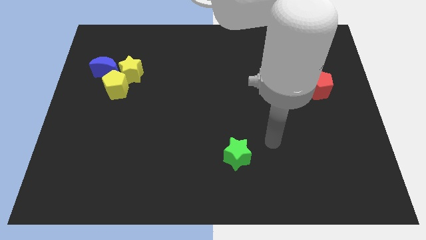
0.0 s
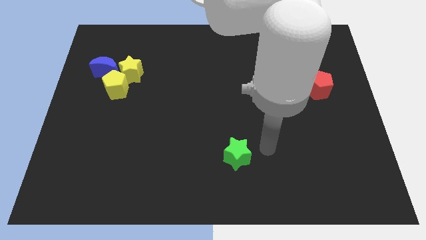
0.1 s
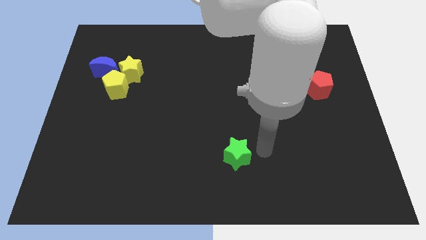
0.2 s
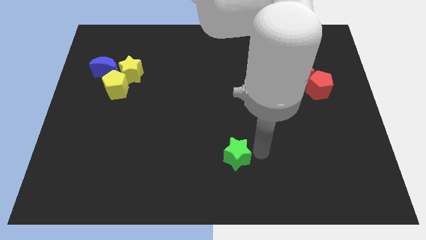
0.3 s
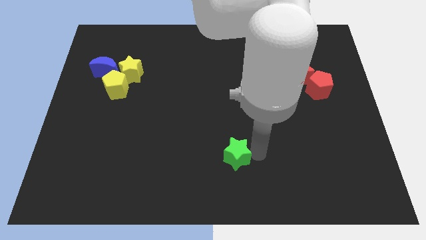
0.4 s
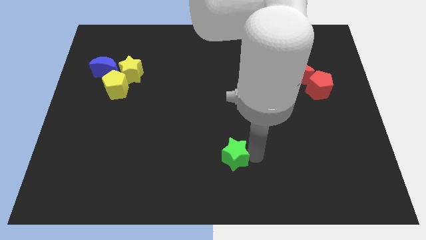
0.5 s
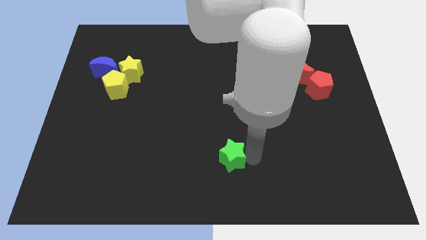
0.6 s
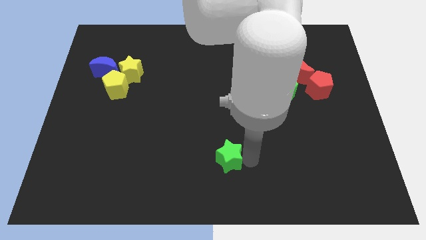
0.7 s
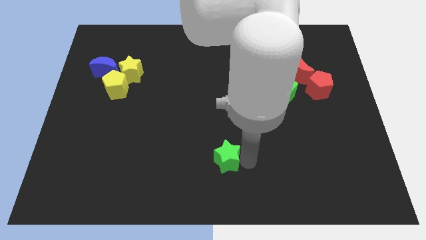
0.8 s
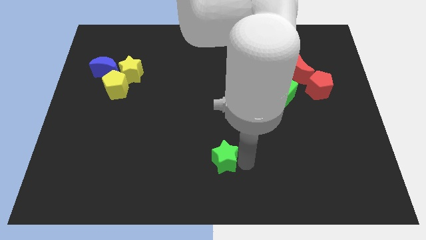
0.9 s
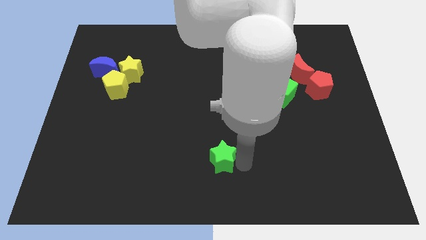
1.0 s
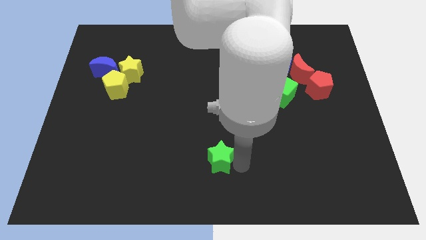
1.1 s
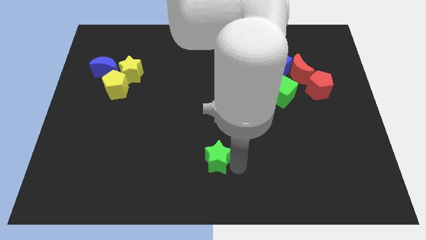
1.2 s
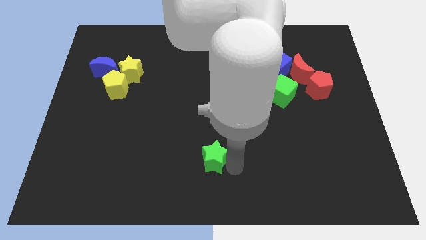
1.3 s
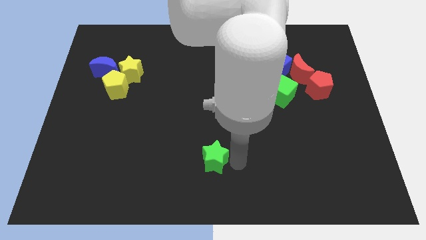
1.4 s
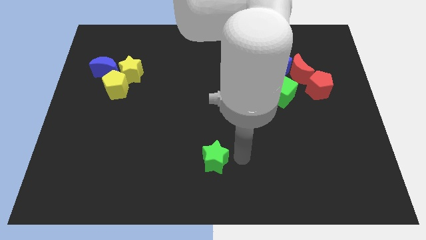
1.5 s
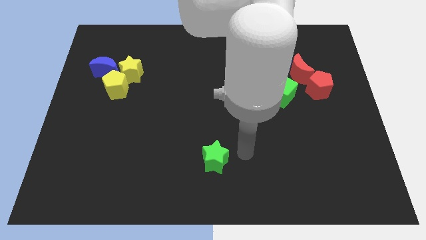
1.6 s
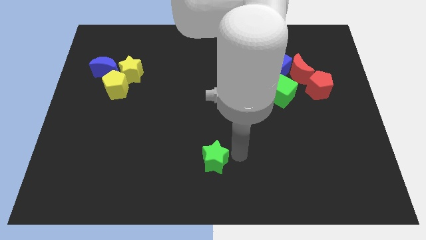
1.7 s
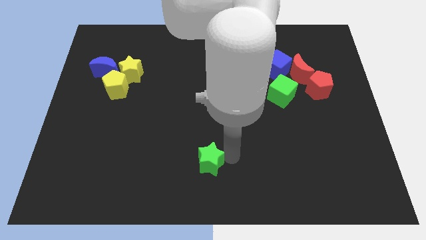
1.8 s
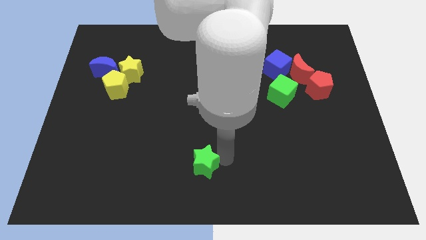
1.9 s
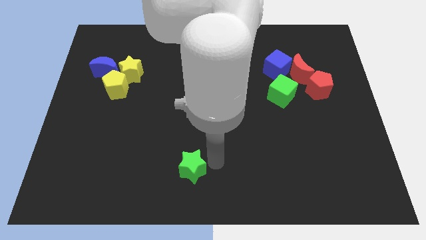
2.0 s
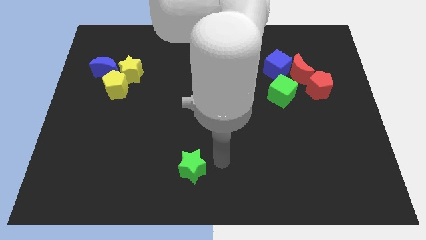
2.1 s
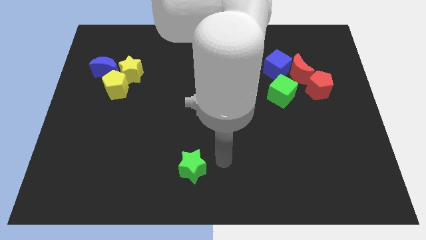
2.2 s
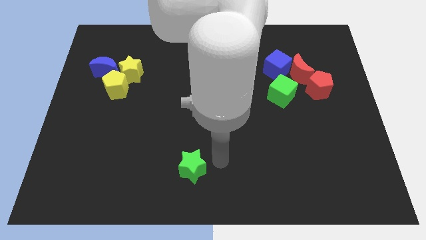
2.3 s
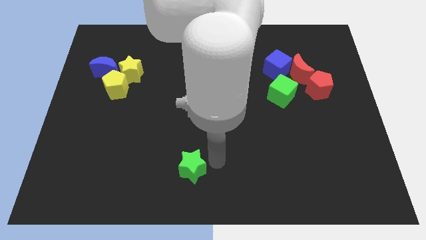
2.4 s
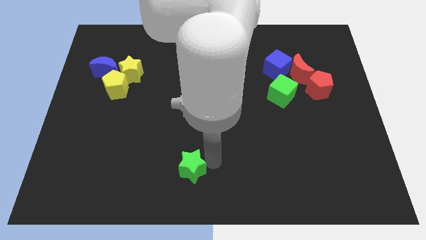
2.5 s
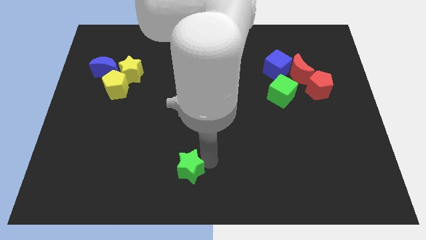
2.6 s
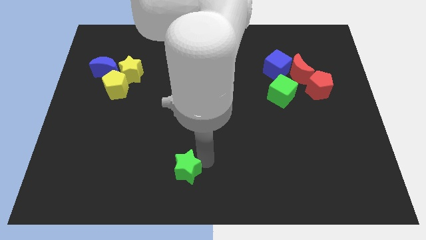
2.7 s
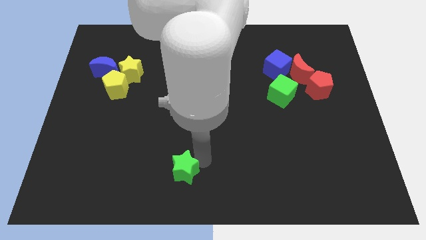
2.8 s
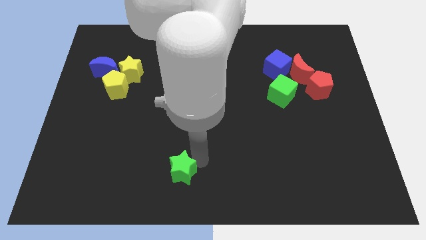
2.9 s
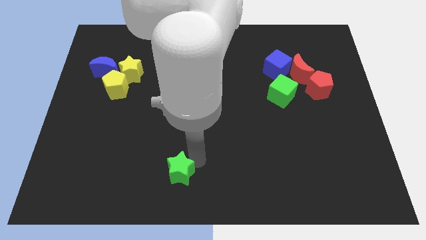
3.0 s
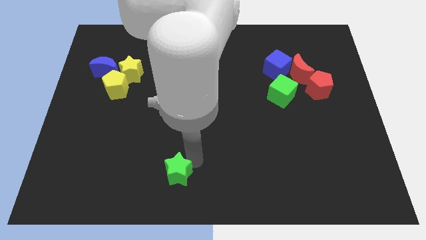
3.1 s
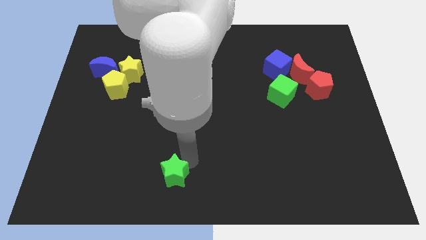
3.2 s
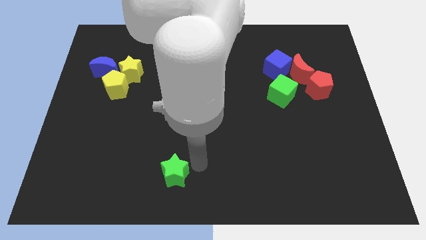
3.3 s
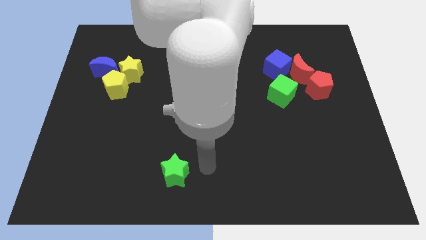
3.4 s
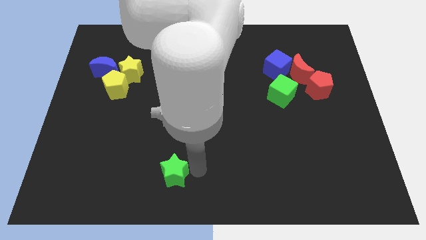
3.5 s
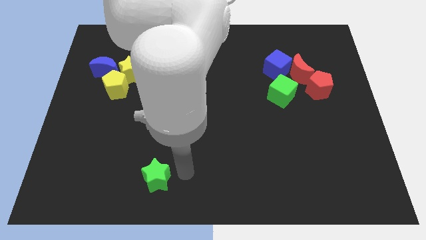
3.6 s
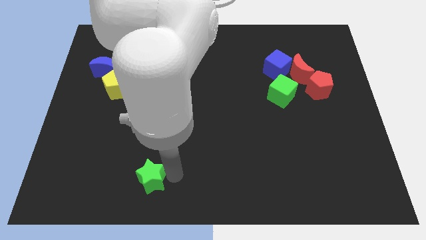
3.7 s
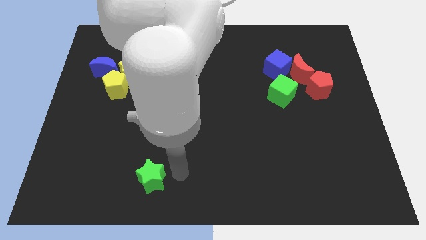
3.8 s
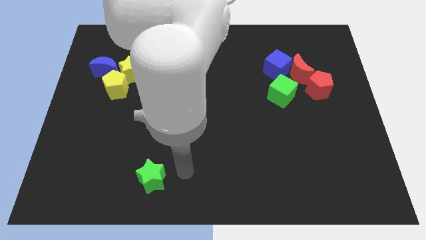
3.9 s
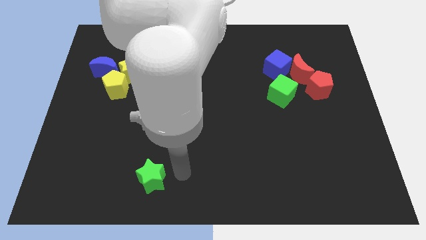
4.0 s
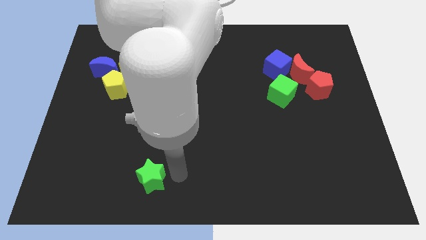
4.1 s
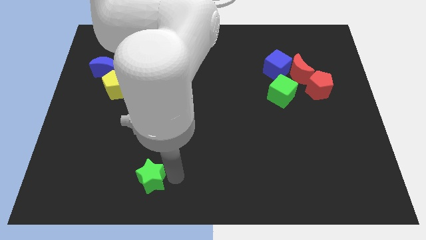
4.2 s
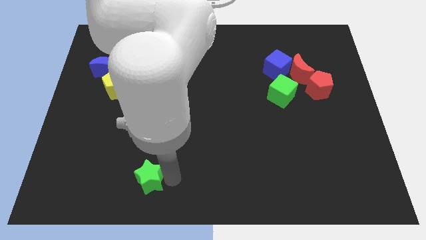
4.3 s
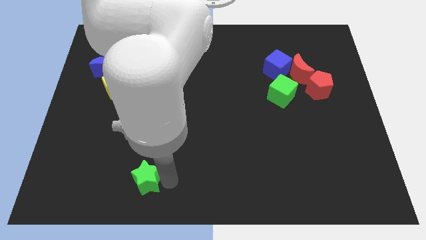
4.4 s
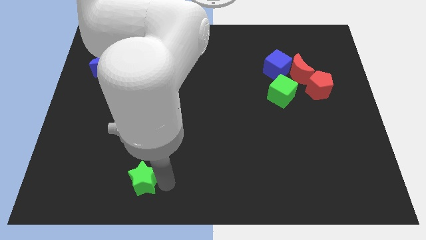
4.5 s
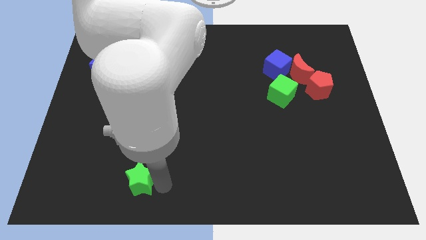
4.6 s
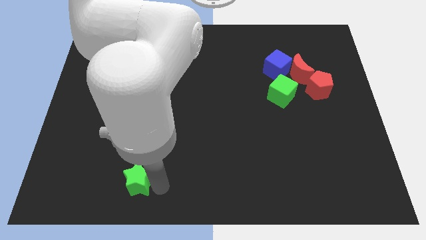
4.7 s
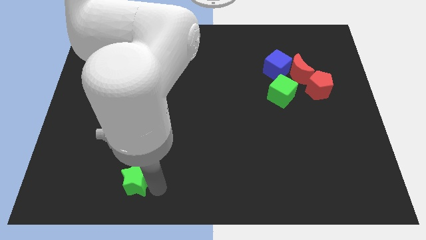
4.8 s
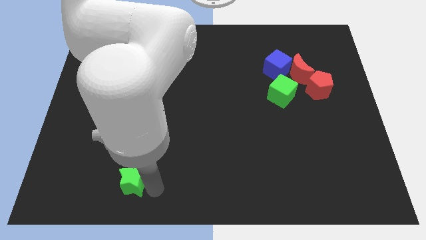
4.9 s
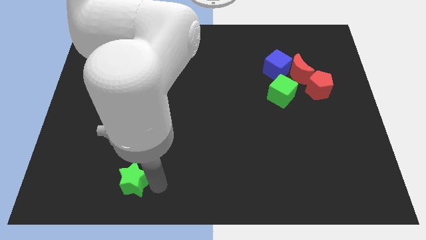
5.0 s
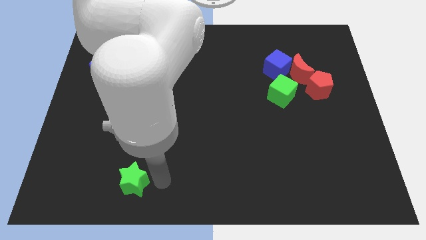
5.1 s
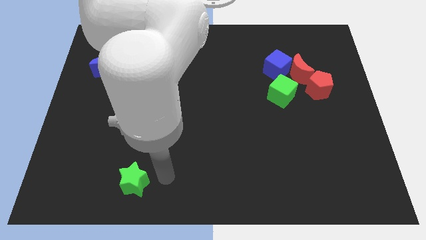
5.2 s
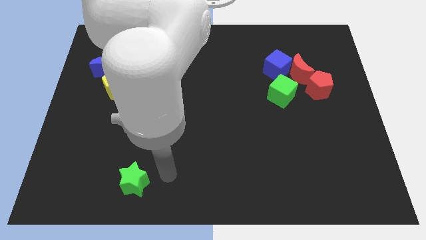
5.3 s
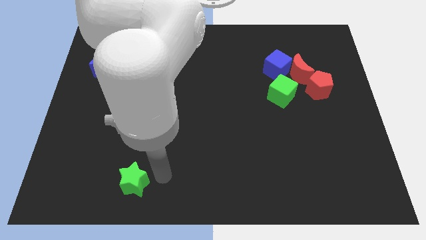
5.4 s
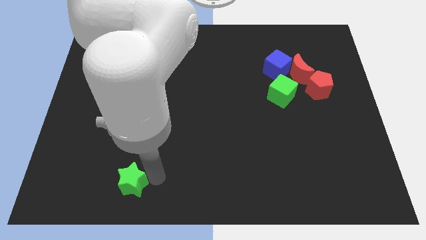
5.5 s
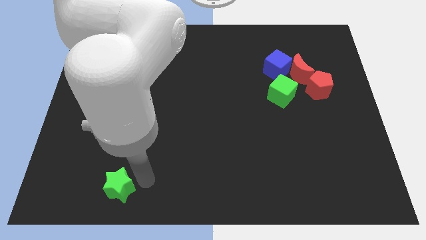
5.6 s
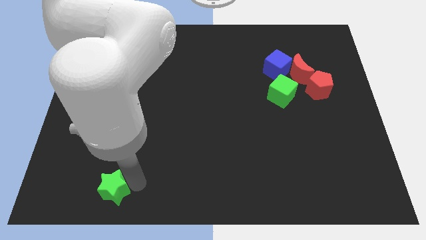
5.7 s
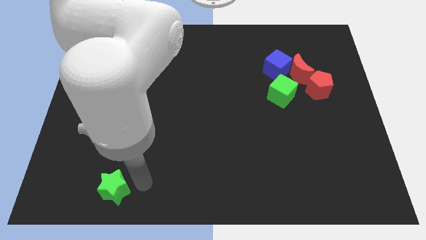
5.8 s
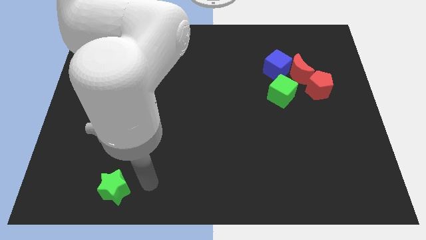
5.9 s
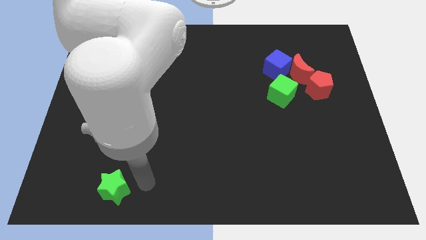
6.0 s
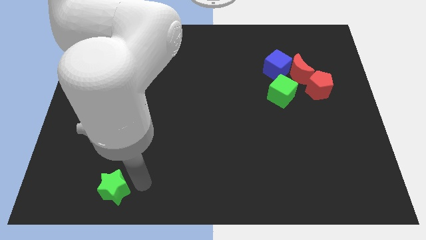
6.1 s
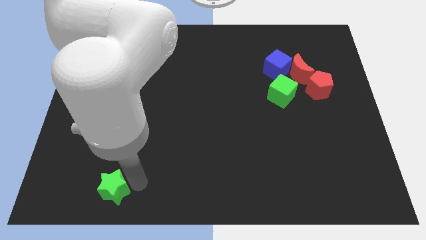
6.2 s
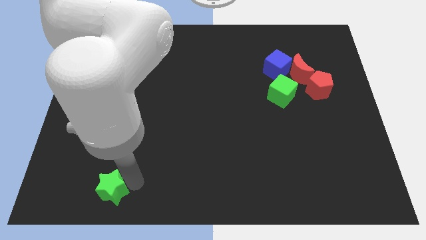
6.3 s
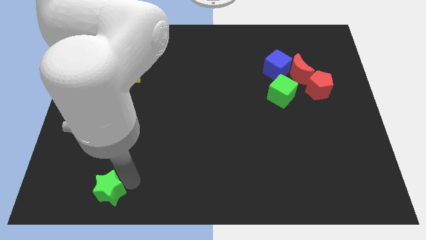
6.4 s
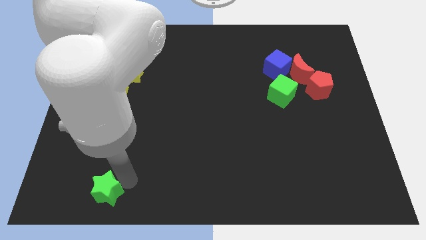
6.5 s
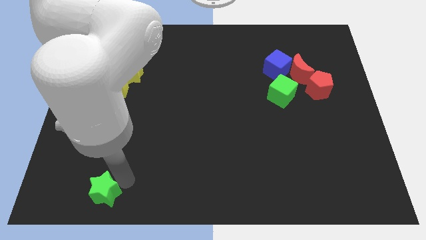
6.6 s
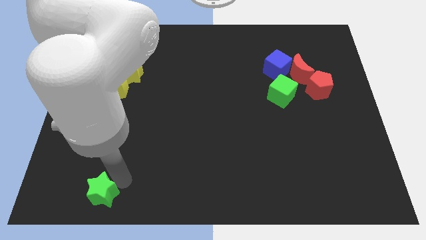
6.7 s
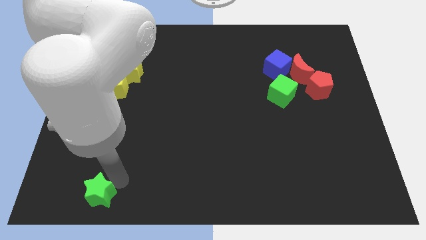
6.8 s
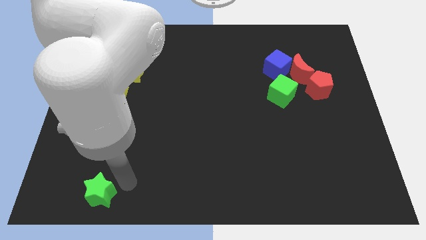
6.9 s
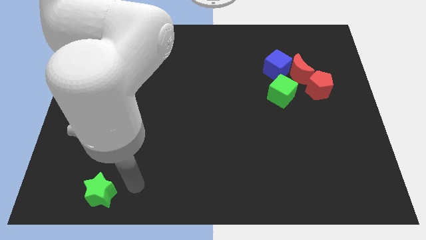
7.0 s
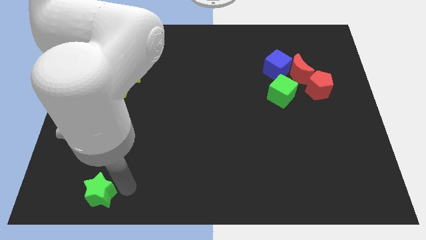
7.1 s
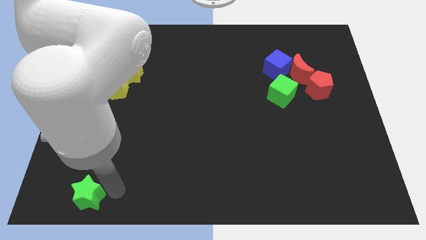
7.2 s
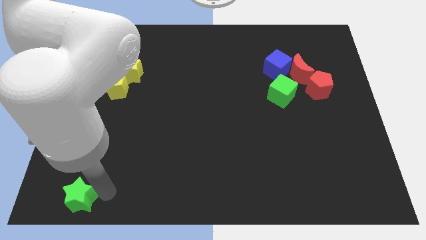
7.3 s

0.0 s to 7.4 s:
move the green star to the bottom left corner
